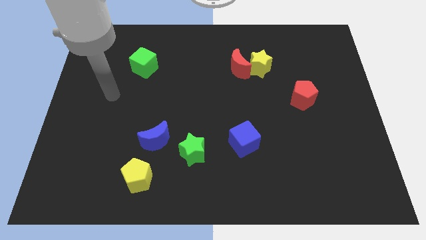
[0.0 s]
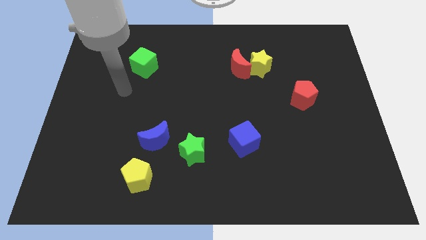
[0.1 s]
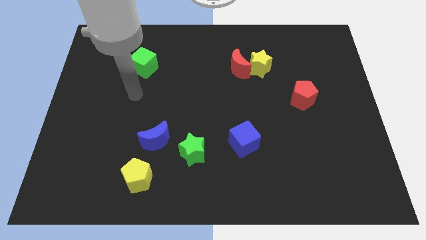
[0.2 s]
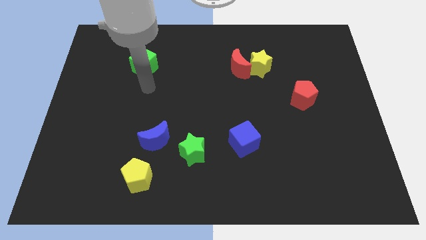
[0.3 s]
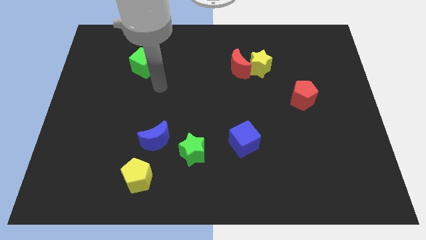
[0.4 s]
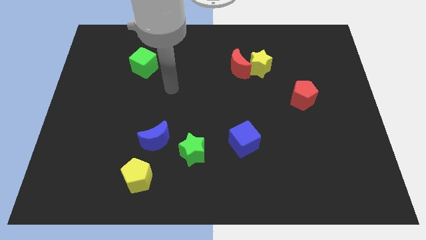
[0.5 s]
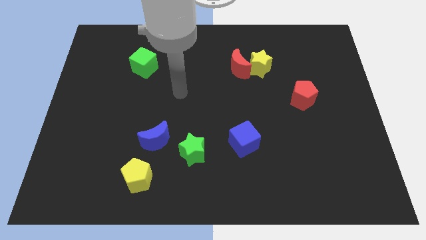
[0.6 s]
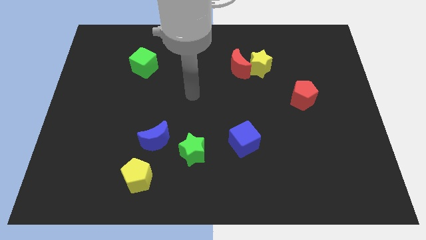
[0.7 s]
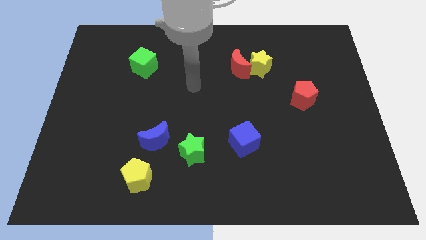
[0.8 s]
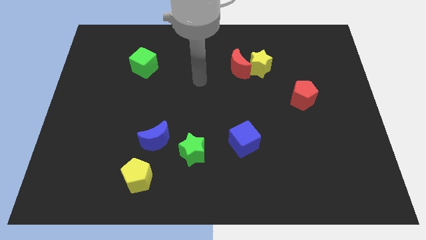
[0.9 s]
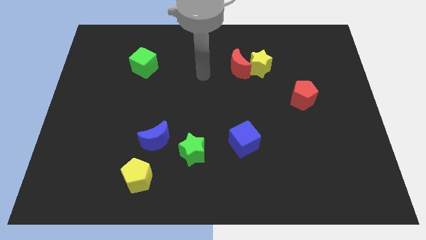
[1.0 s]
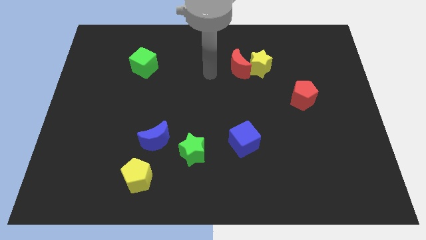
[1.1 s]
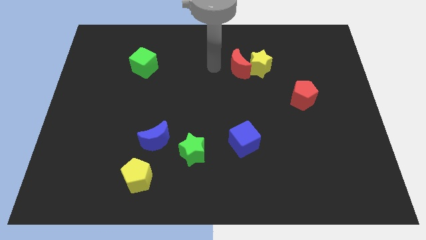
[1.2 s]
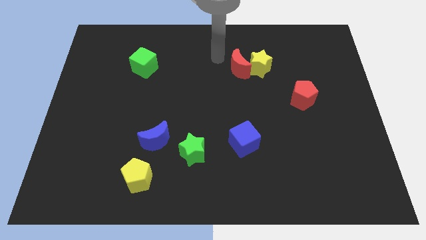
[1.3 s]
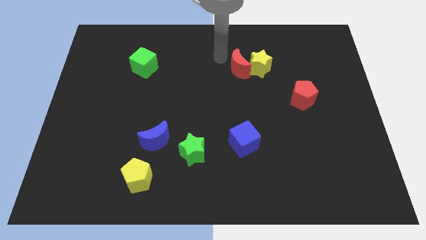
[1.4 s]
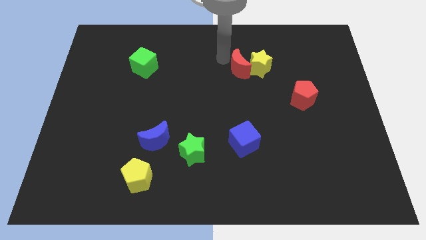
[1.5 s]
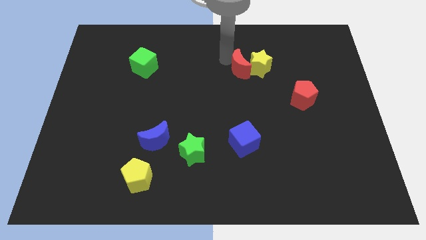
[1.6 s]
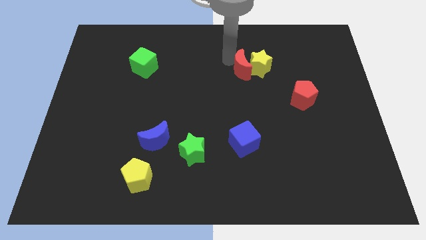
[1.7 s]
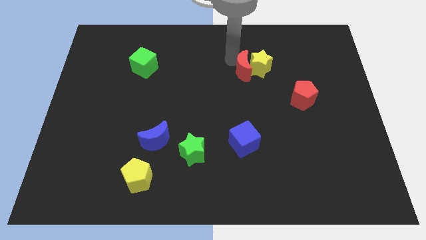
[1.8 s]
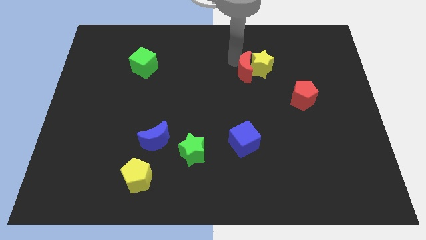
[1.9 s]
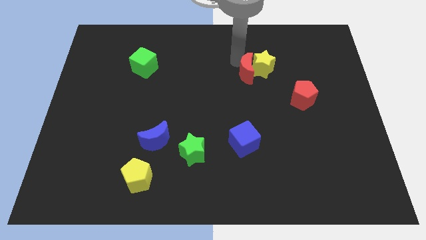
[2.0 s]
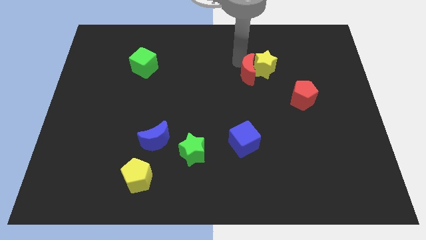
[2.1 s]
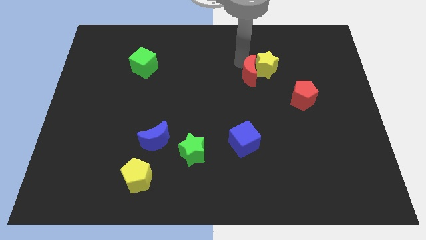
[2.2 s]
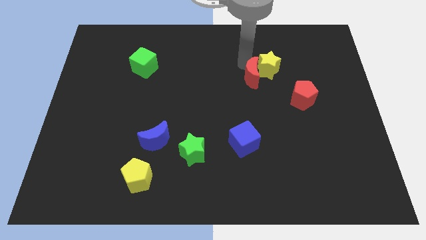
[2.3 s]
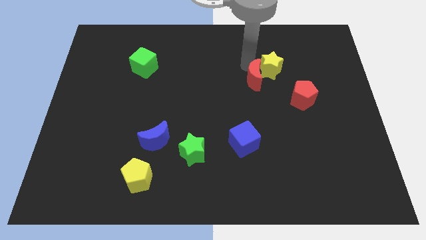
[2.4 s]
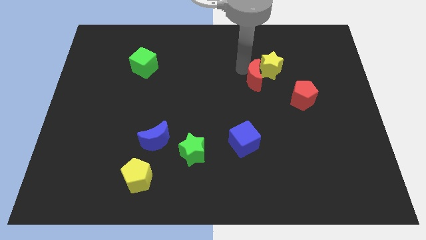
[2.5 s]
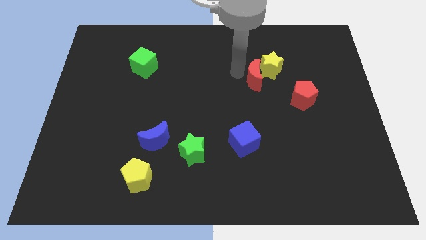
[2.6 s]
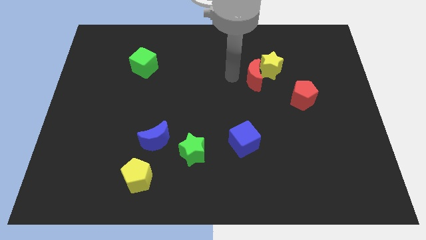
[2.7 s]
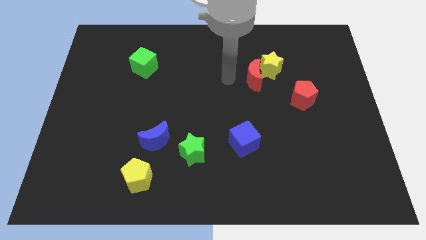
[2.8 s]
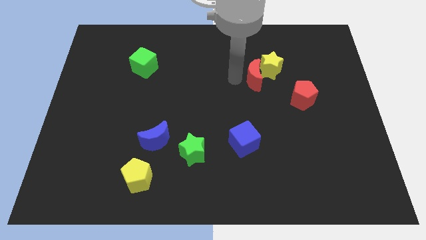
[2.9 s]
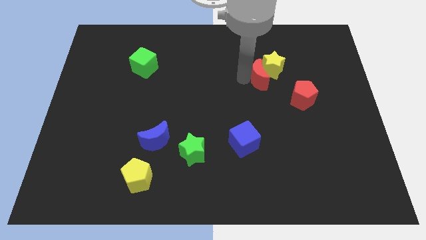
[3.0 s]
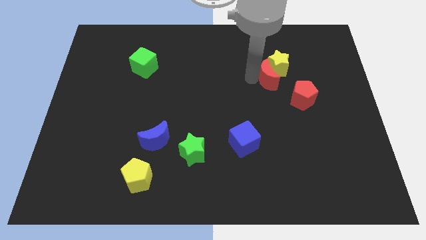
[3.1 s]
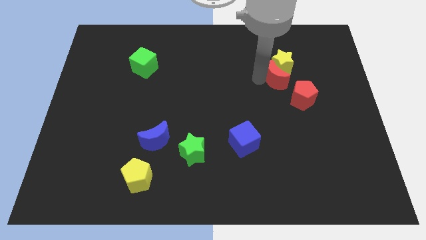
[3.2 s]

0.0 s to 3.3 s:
slightly push the red moon to the right

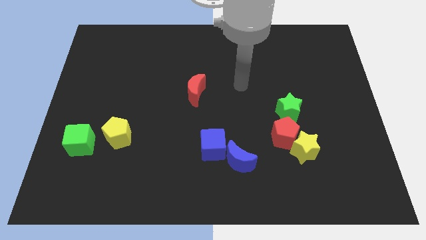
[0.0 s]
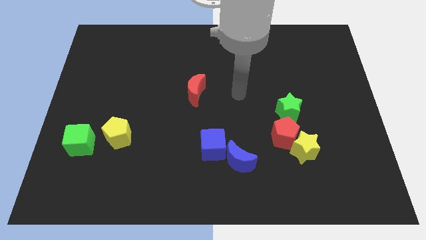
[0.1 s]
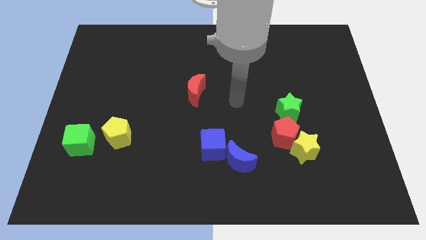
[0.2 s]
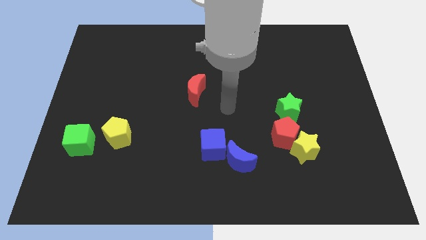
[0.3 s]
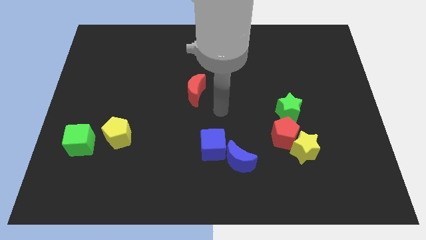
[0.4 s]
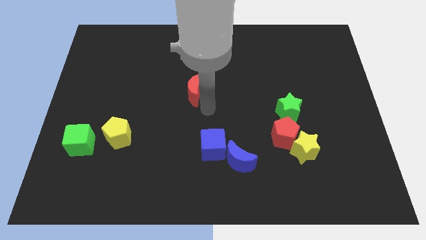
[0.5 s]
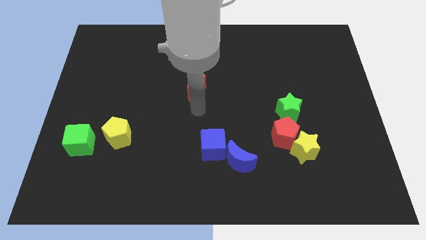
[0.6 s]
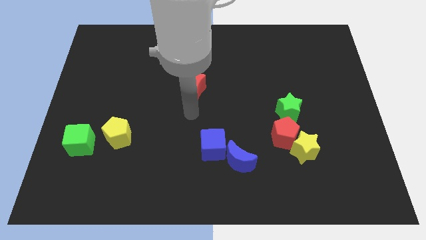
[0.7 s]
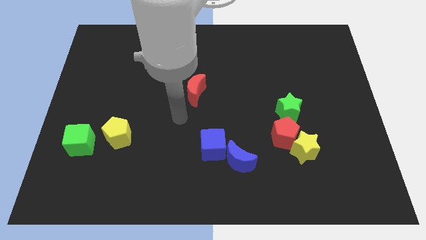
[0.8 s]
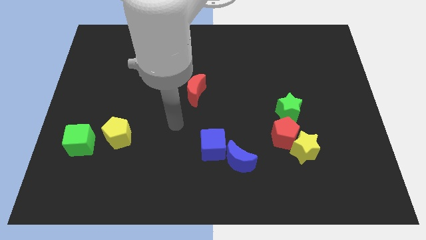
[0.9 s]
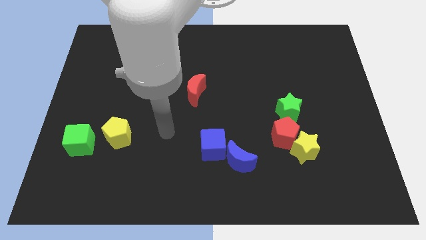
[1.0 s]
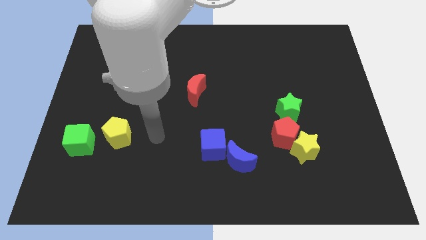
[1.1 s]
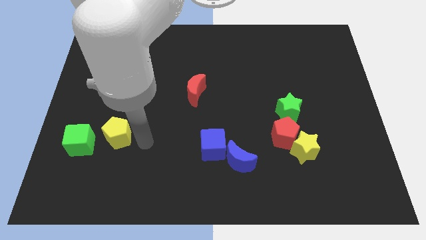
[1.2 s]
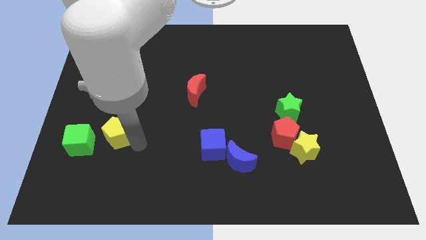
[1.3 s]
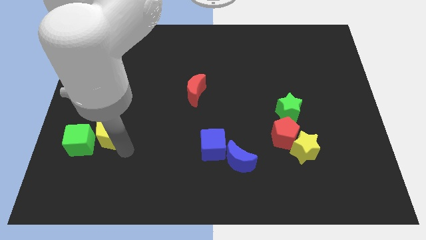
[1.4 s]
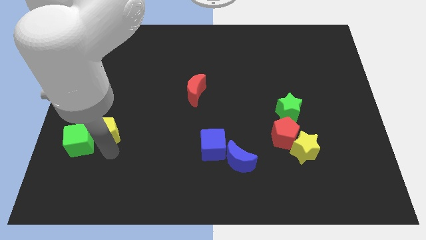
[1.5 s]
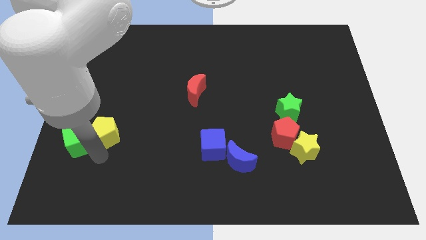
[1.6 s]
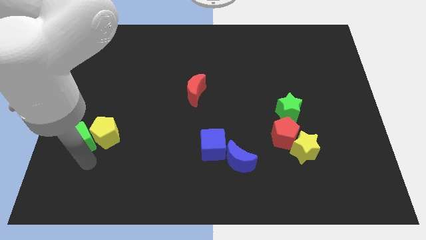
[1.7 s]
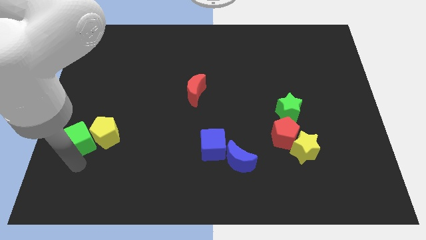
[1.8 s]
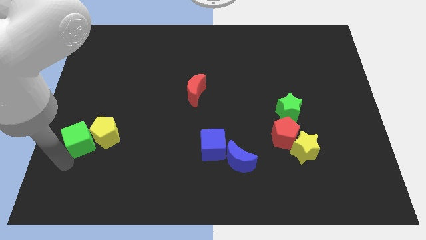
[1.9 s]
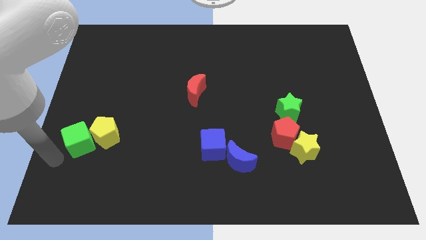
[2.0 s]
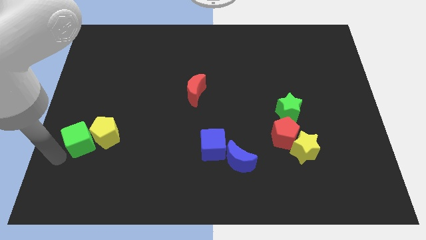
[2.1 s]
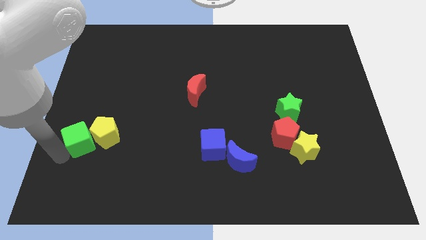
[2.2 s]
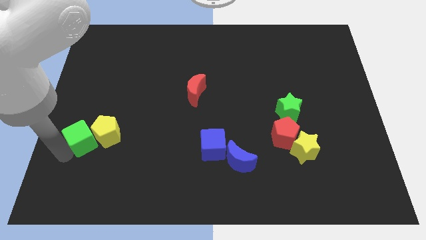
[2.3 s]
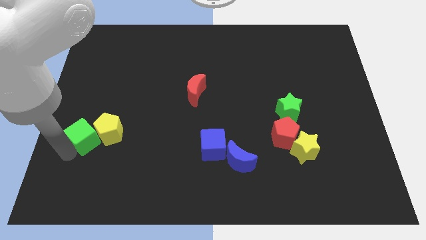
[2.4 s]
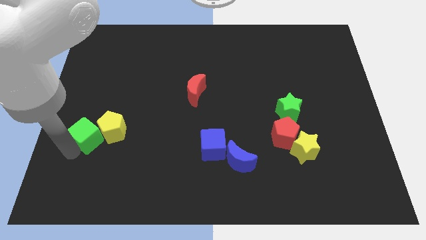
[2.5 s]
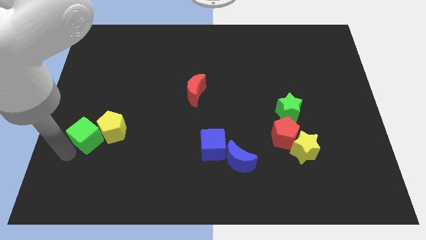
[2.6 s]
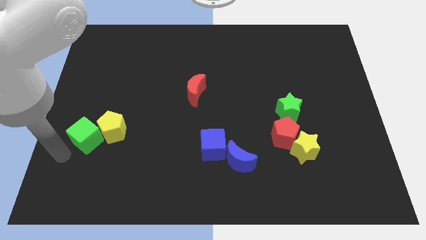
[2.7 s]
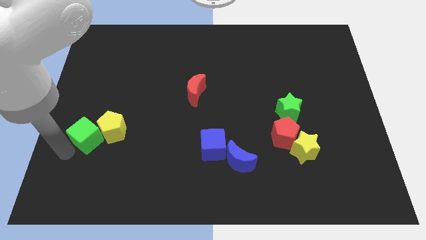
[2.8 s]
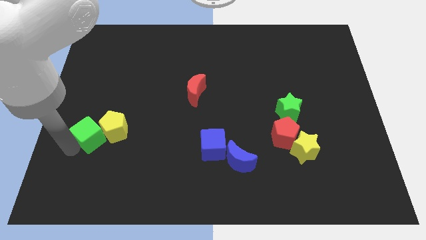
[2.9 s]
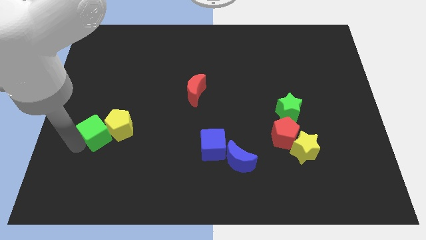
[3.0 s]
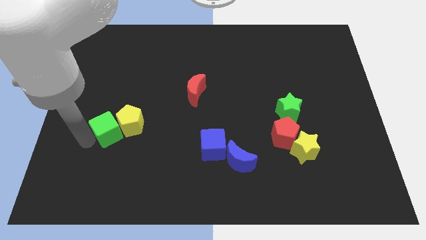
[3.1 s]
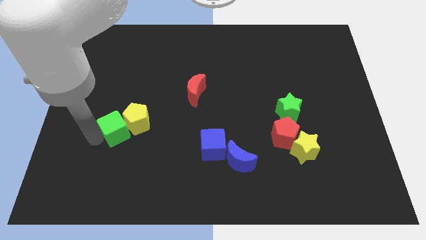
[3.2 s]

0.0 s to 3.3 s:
slide the green cube upwards and right a bit

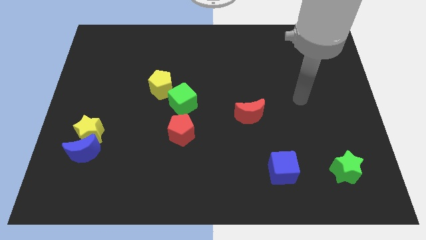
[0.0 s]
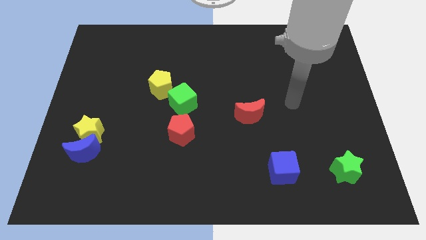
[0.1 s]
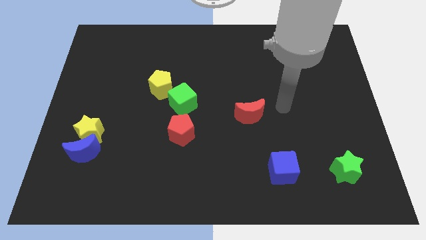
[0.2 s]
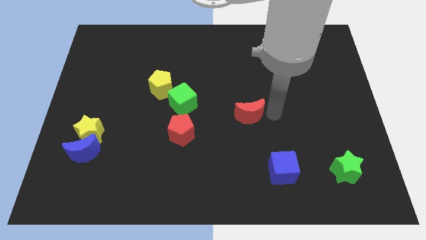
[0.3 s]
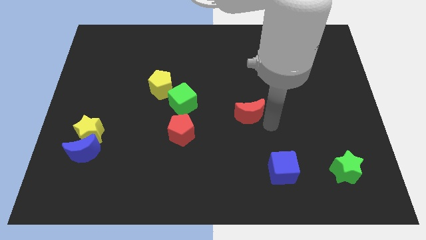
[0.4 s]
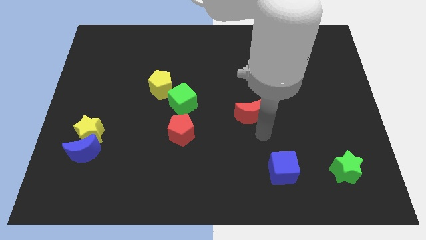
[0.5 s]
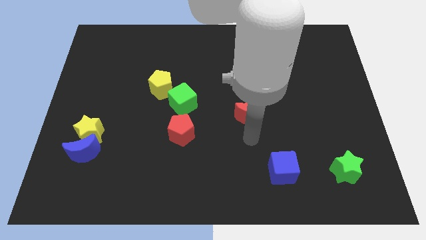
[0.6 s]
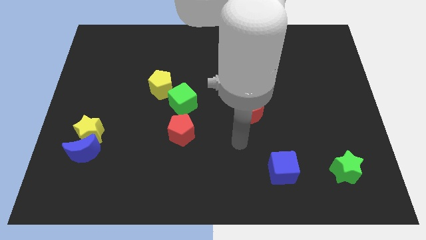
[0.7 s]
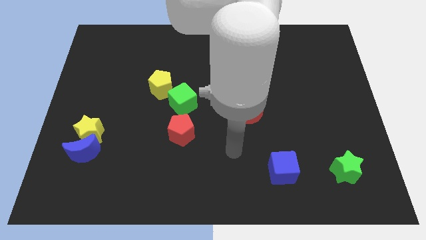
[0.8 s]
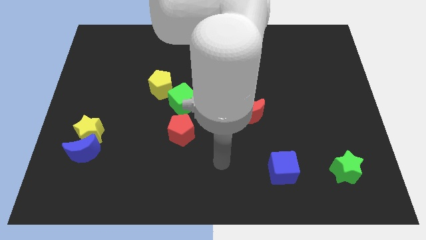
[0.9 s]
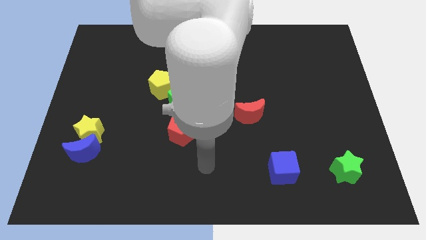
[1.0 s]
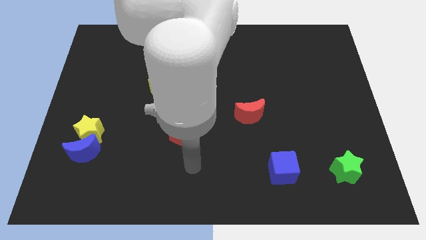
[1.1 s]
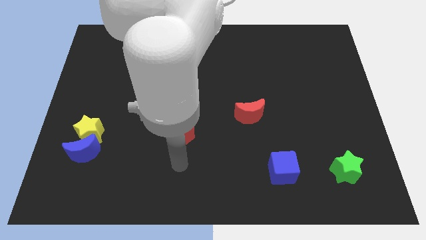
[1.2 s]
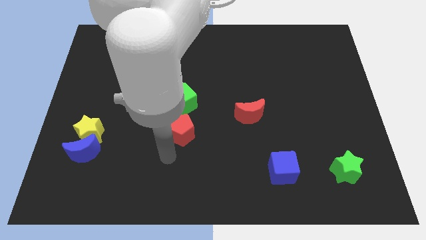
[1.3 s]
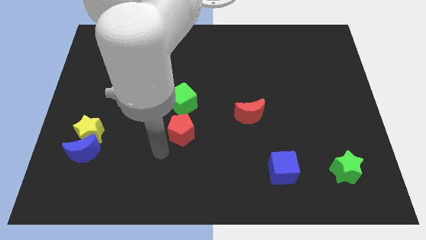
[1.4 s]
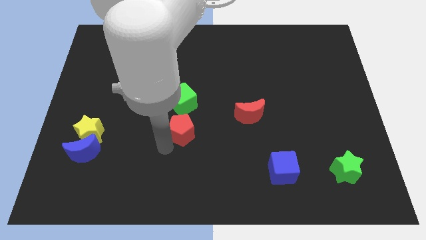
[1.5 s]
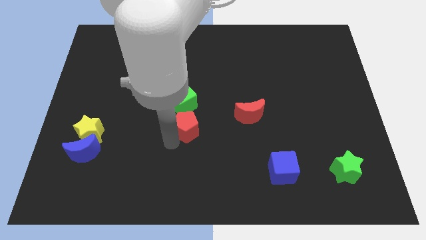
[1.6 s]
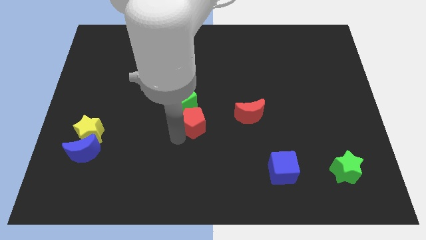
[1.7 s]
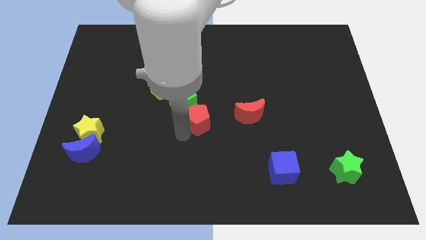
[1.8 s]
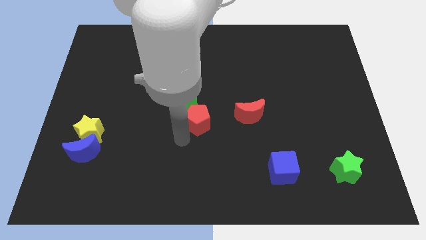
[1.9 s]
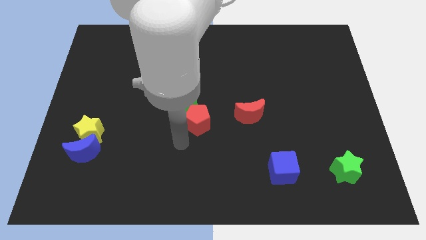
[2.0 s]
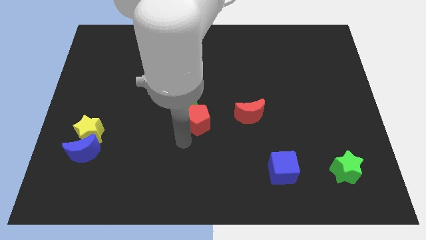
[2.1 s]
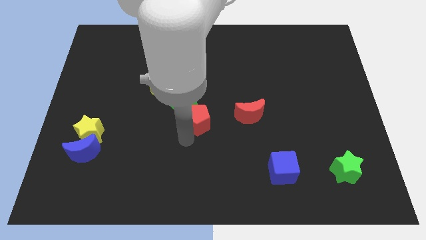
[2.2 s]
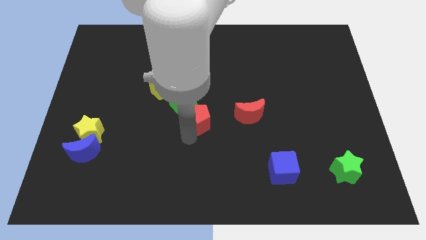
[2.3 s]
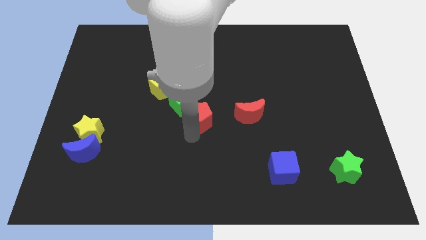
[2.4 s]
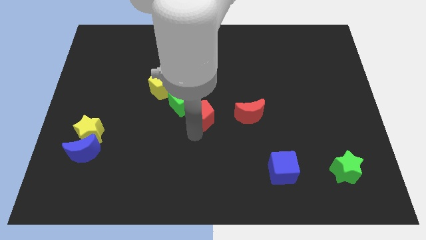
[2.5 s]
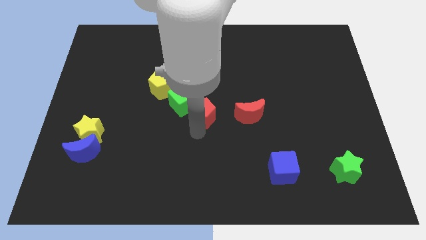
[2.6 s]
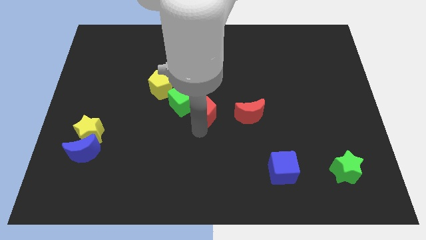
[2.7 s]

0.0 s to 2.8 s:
push the red pentagon slightly upwards and right
